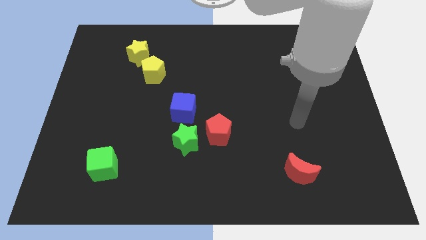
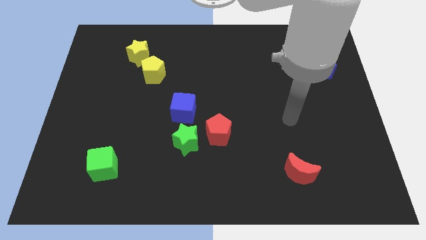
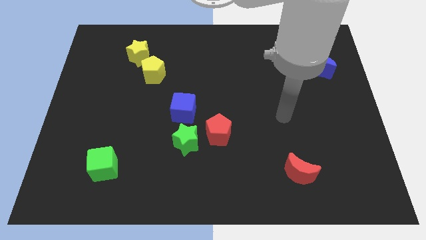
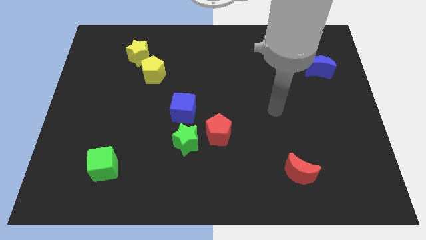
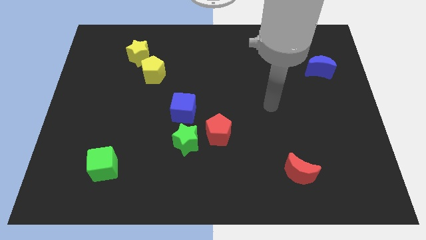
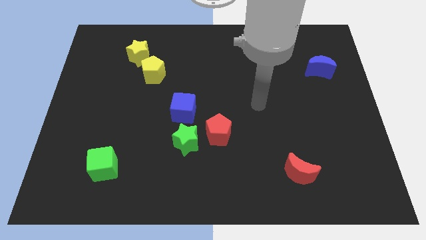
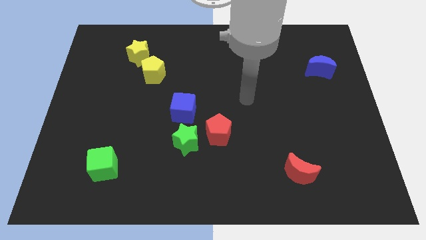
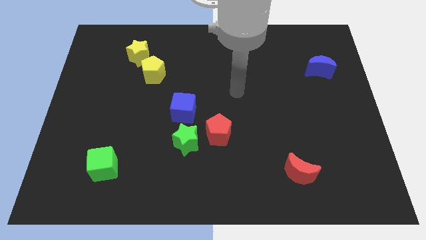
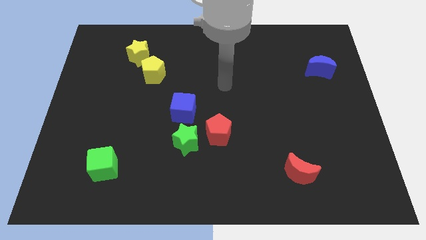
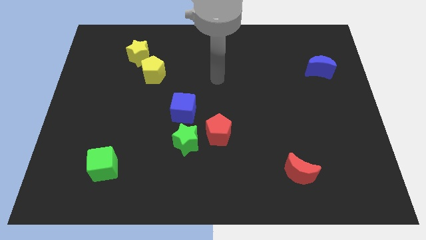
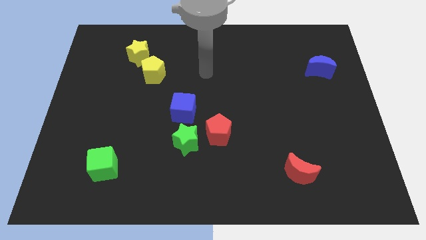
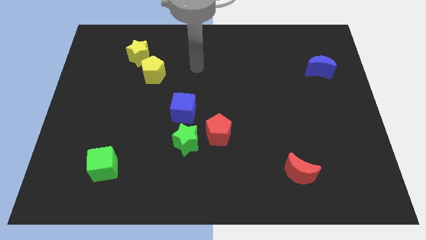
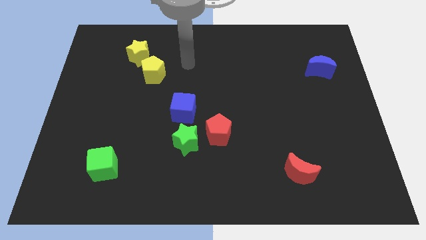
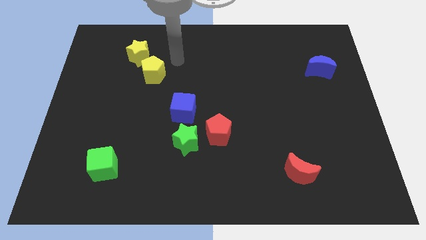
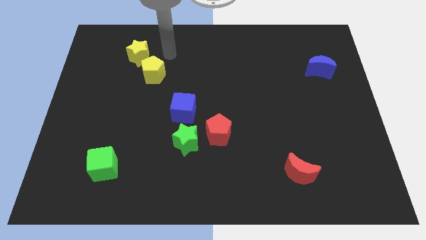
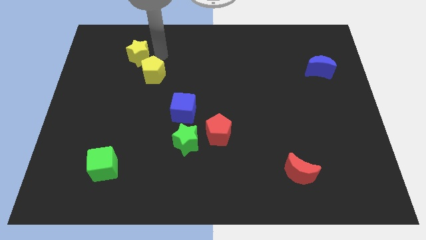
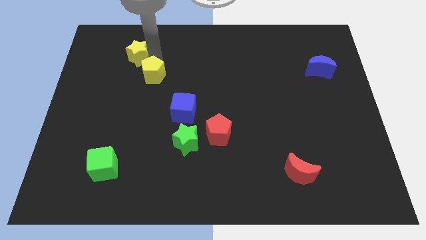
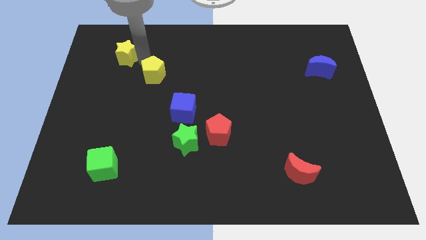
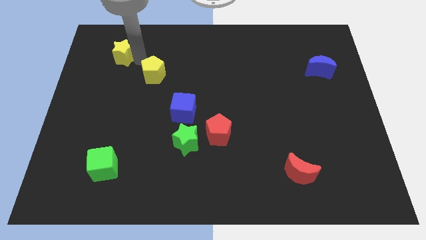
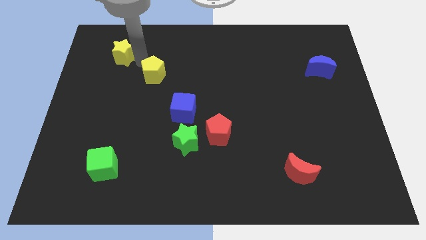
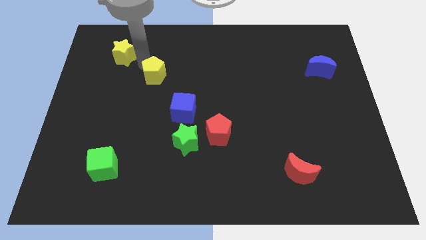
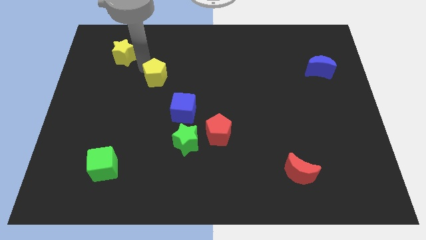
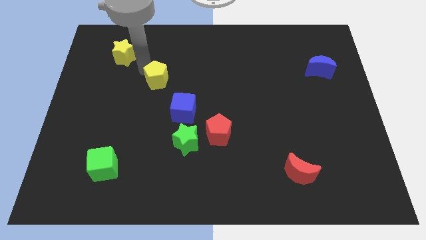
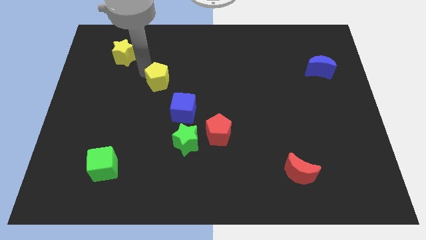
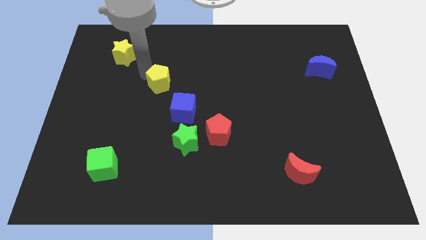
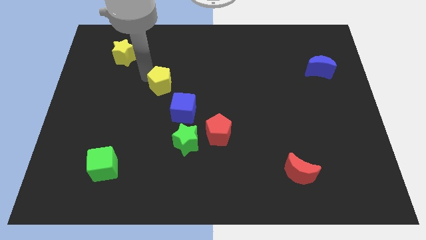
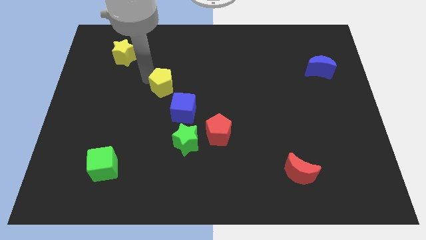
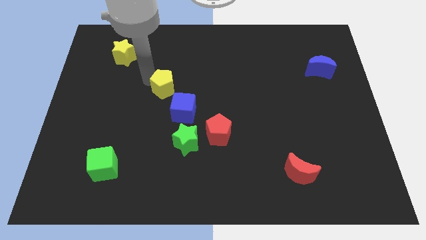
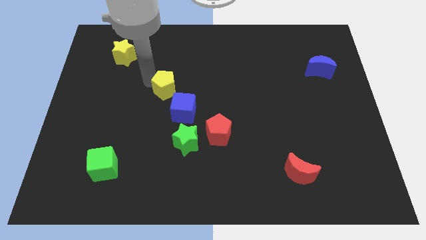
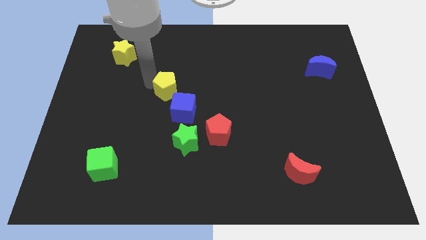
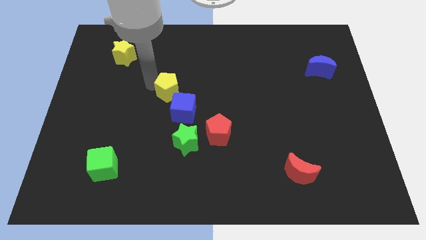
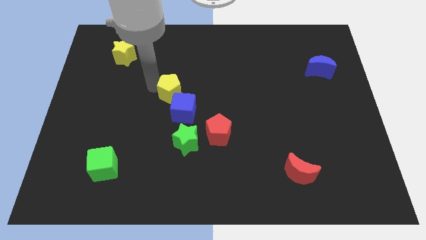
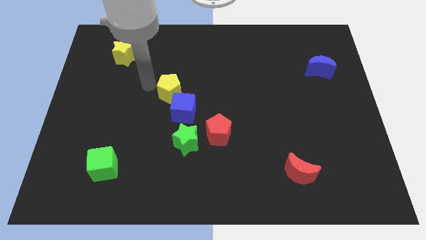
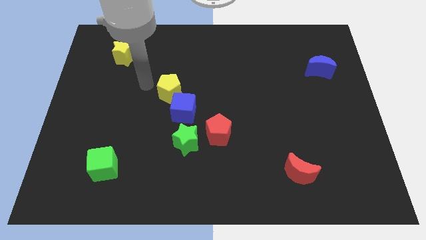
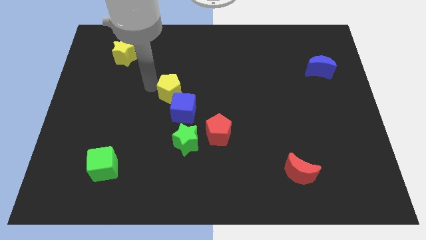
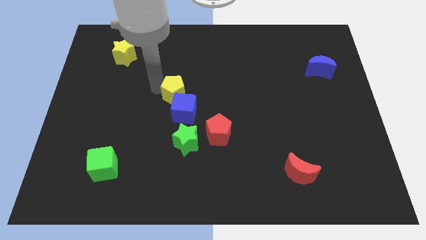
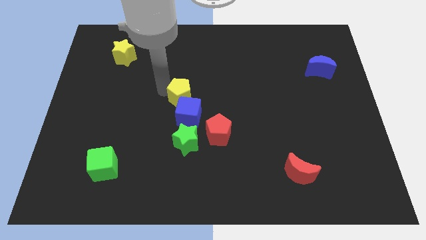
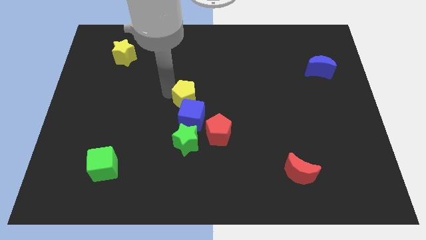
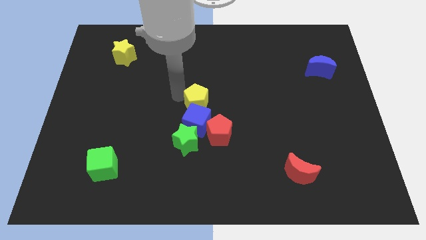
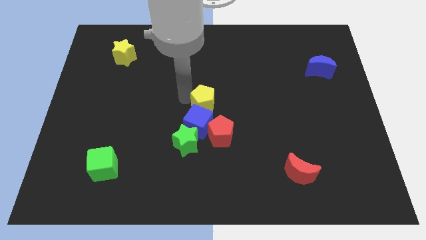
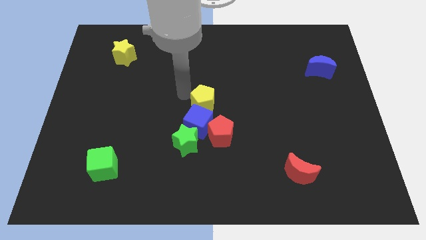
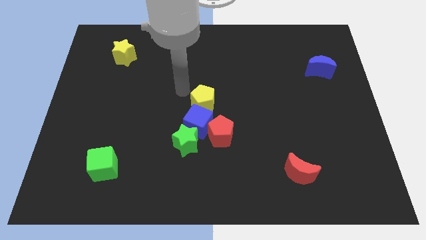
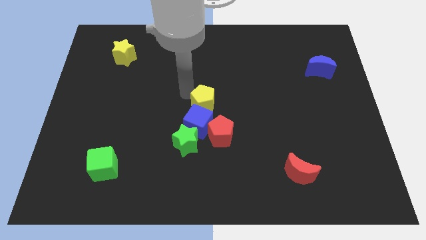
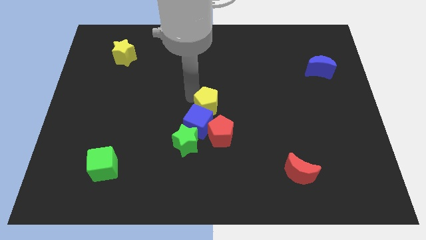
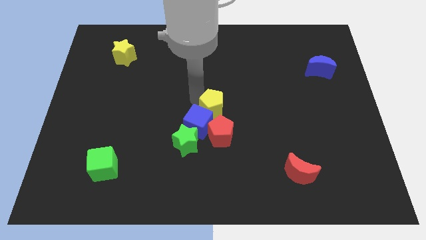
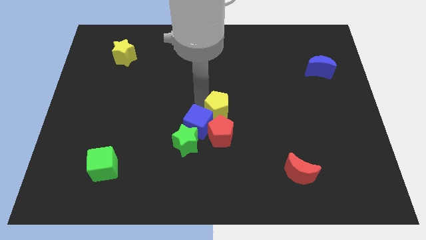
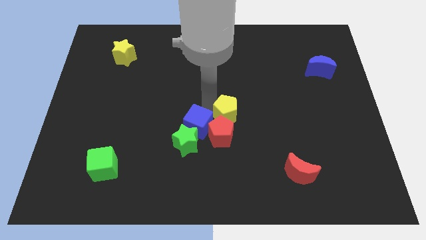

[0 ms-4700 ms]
push the yellow pentagon downwards and right diagonally

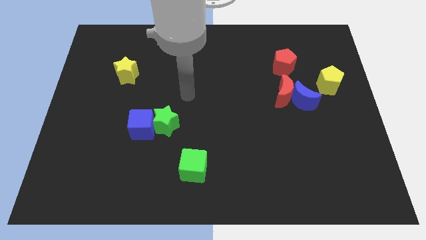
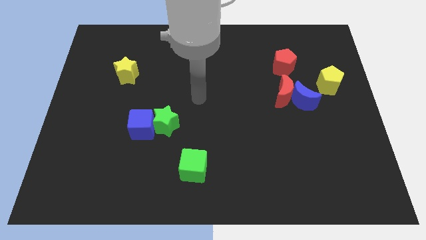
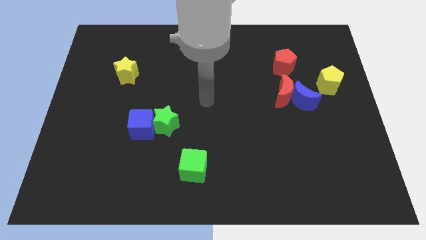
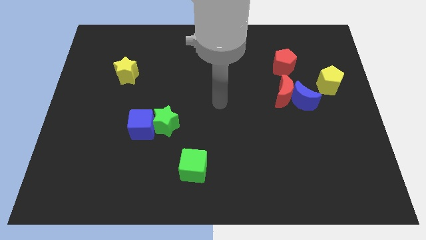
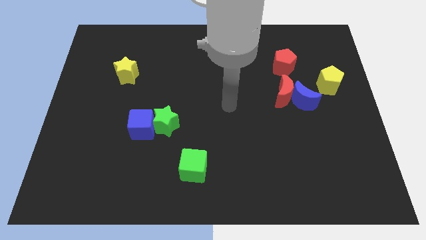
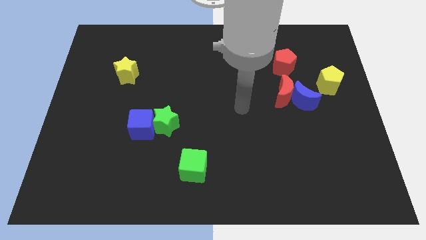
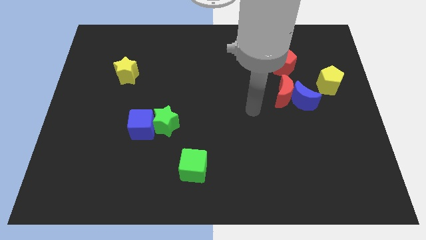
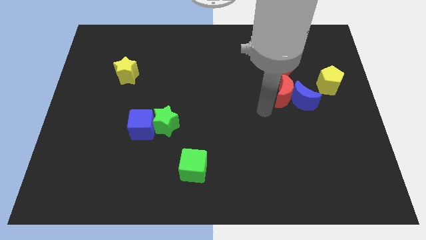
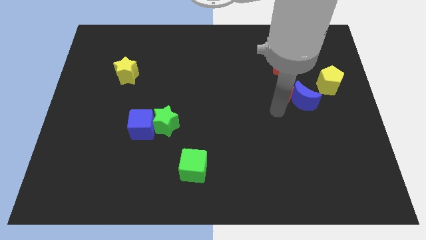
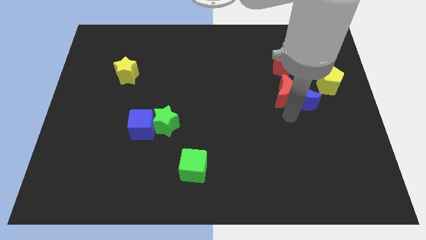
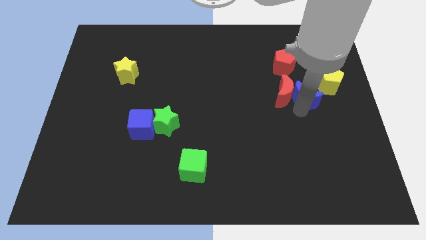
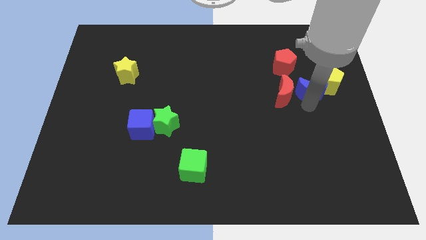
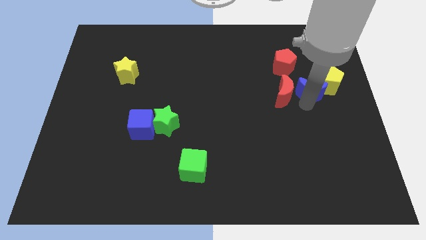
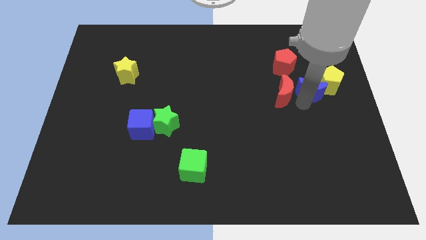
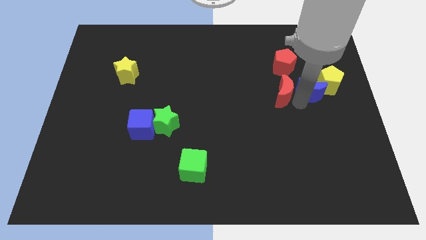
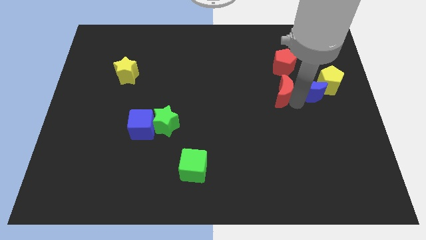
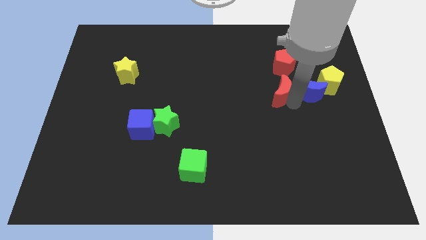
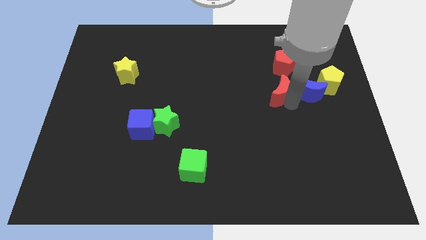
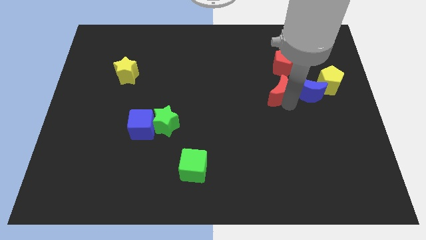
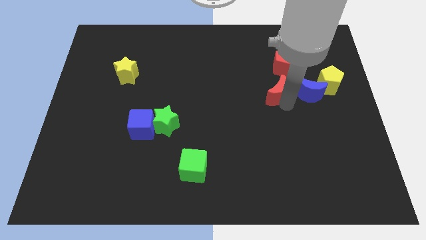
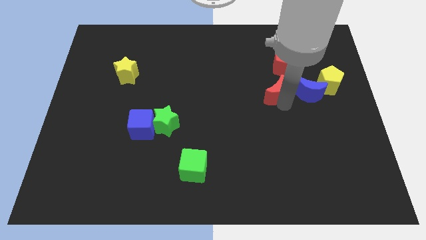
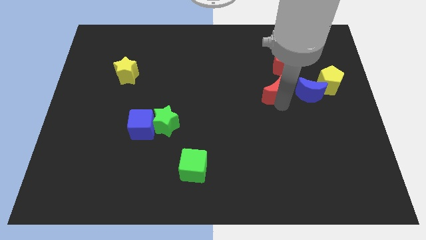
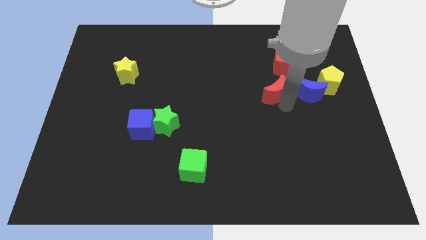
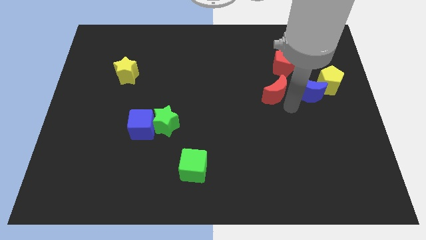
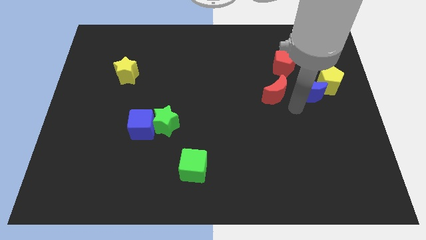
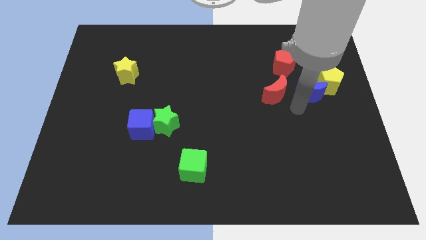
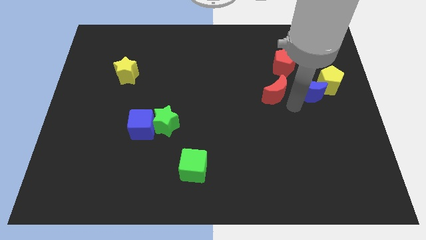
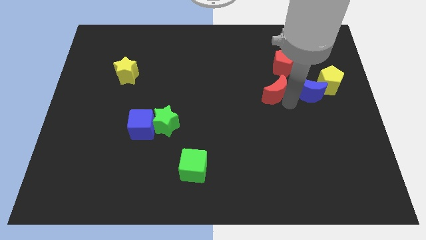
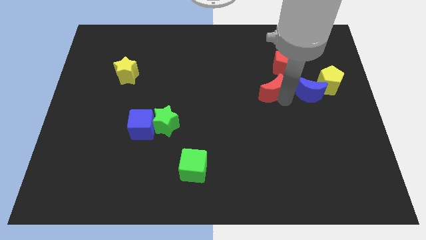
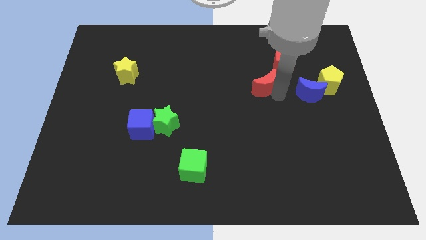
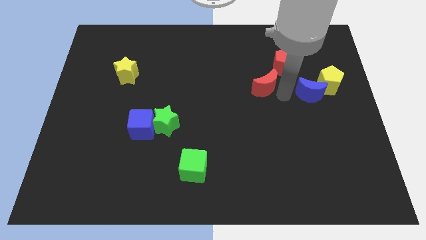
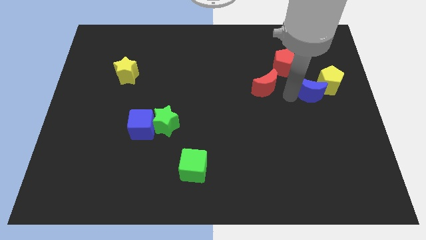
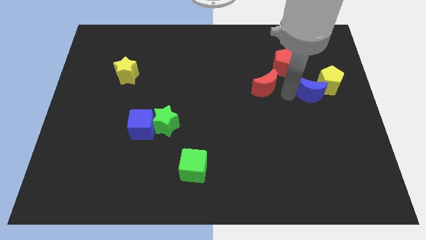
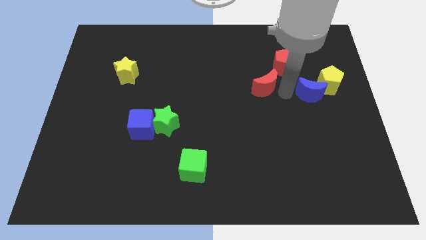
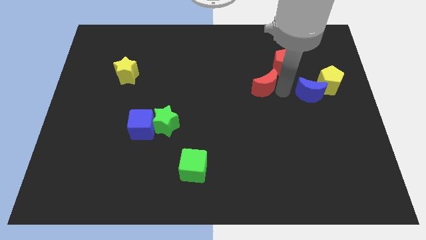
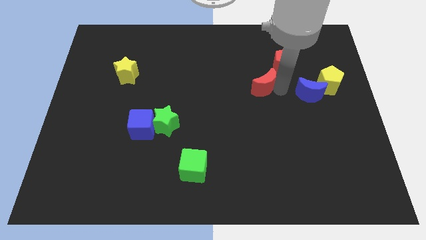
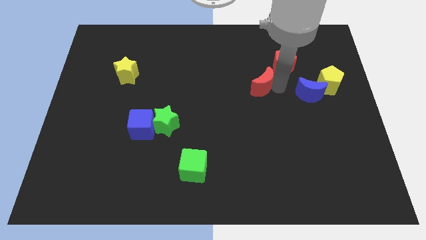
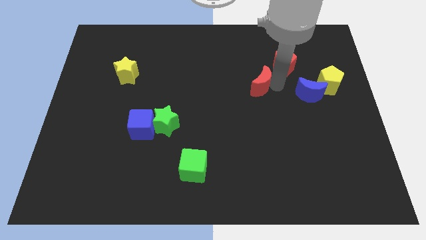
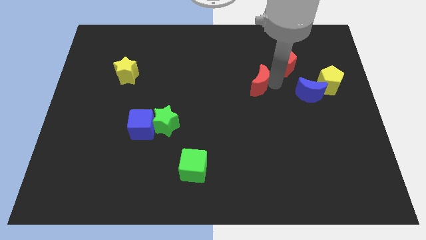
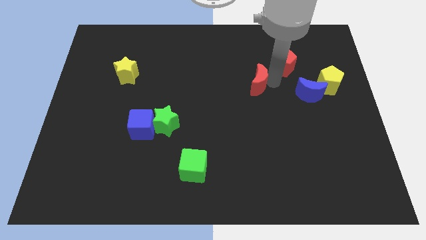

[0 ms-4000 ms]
slightly slide the red moon up and to the left diagonally
